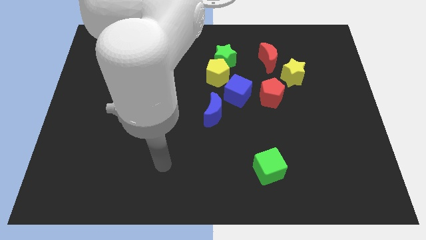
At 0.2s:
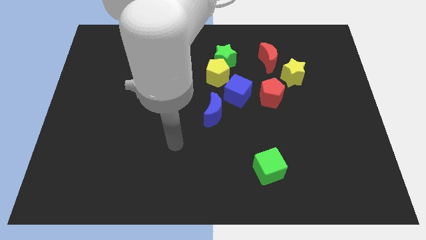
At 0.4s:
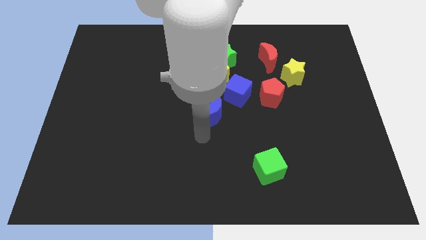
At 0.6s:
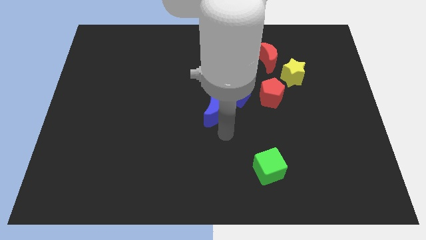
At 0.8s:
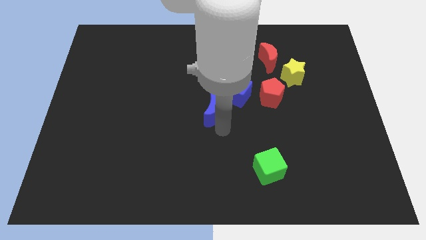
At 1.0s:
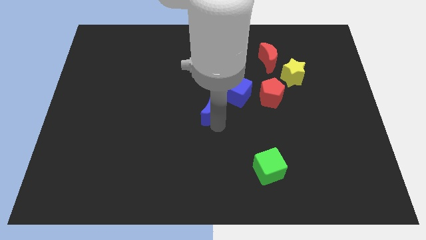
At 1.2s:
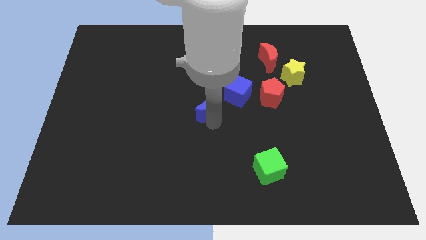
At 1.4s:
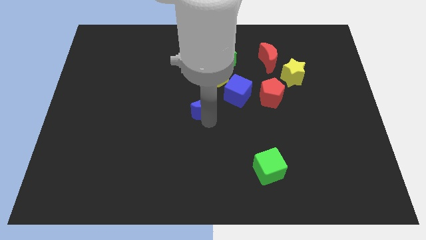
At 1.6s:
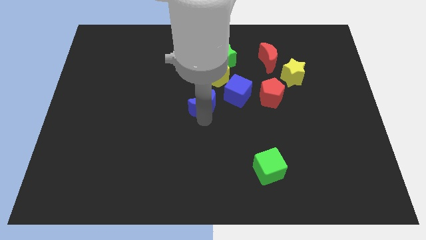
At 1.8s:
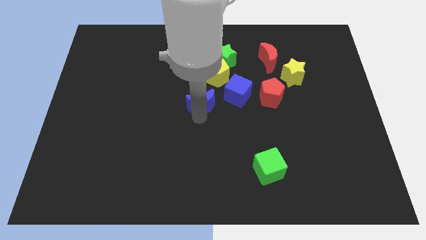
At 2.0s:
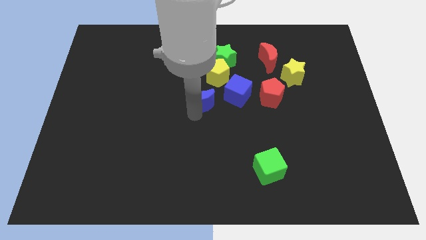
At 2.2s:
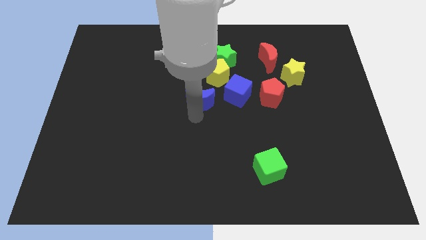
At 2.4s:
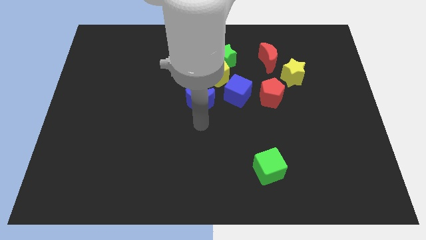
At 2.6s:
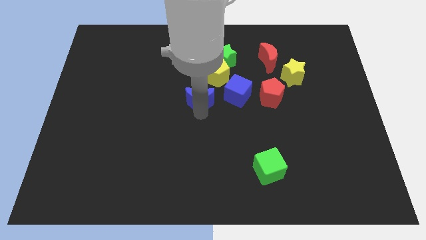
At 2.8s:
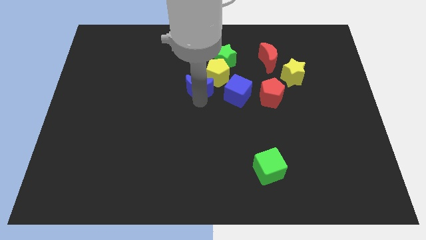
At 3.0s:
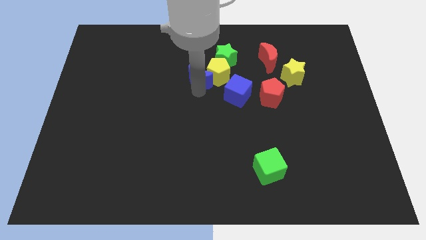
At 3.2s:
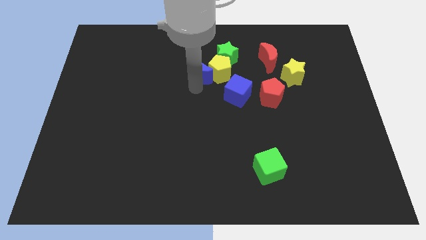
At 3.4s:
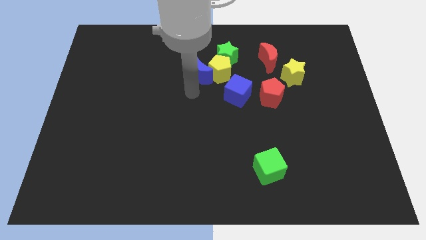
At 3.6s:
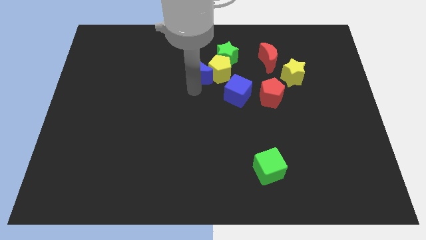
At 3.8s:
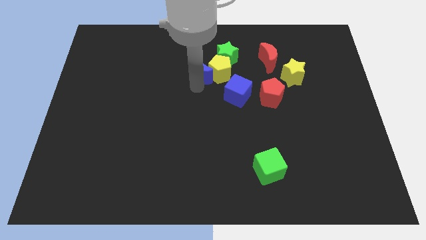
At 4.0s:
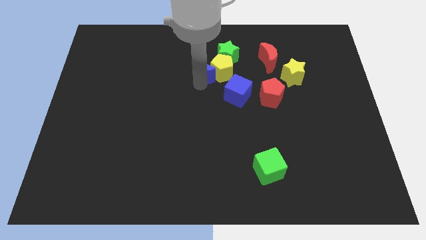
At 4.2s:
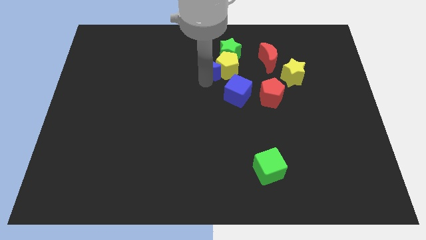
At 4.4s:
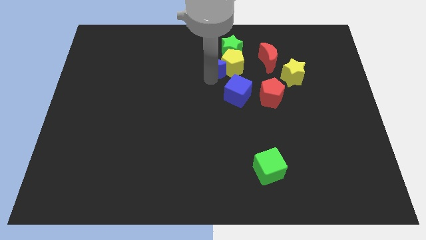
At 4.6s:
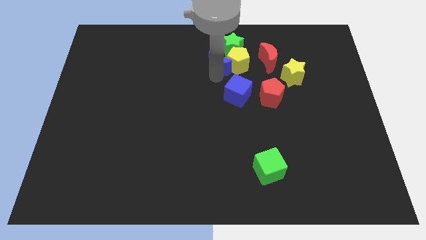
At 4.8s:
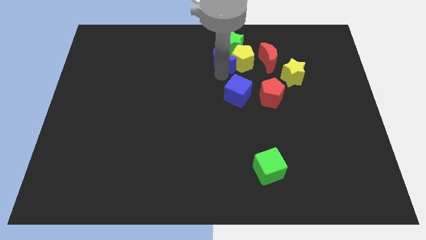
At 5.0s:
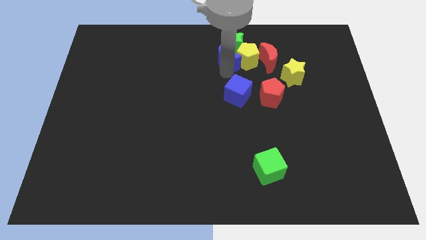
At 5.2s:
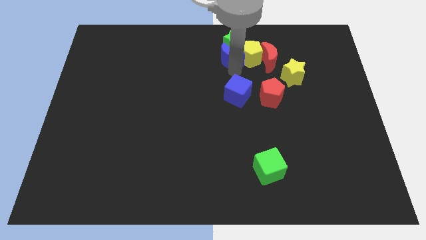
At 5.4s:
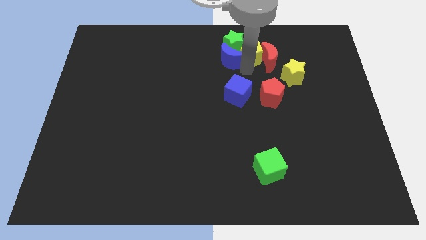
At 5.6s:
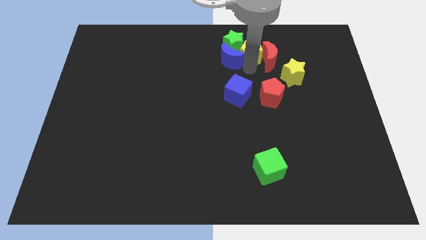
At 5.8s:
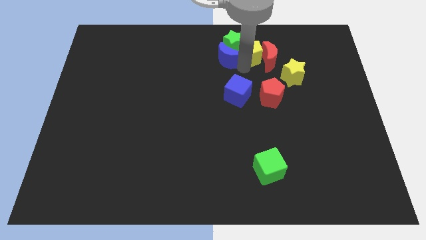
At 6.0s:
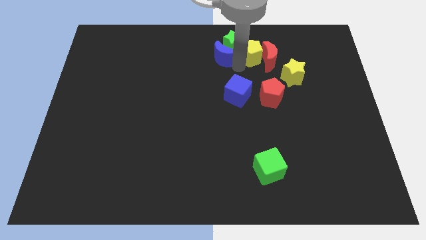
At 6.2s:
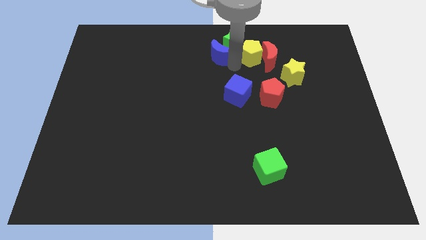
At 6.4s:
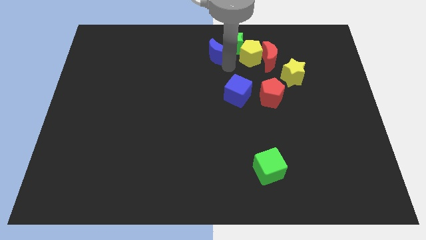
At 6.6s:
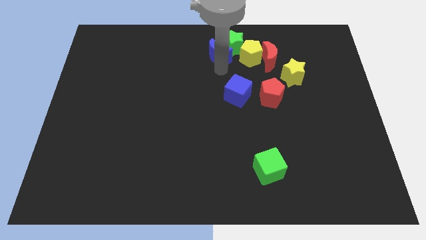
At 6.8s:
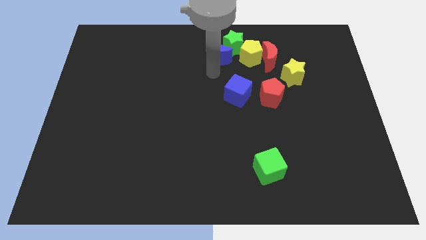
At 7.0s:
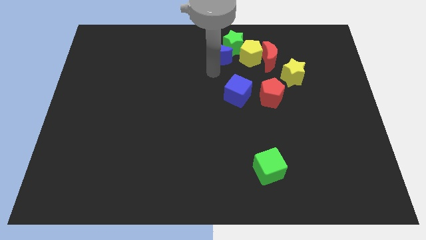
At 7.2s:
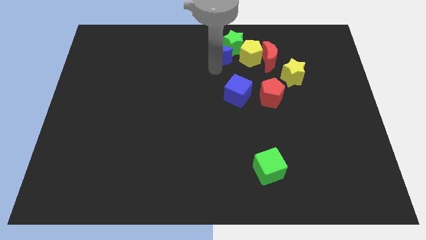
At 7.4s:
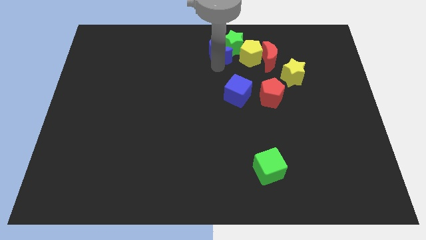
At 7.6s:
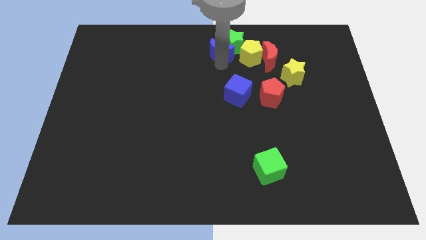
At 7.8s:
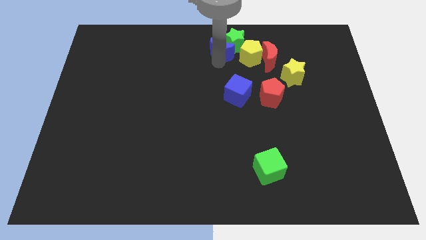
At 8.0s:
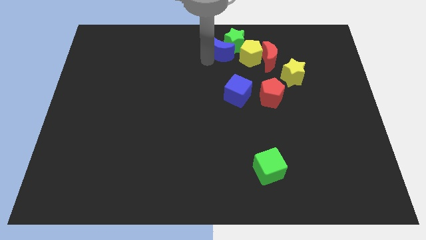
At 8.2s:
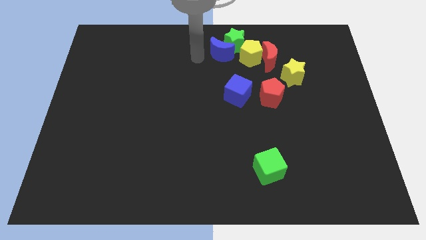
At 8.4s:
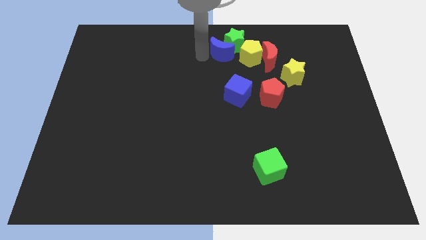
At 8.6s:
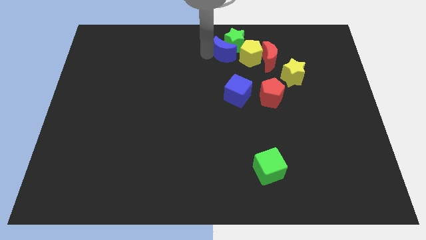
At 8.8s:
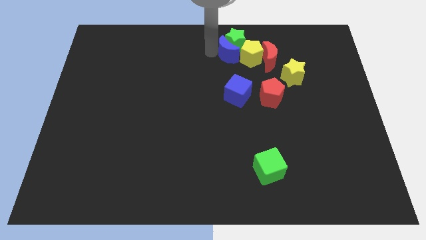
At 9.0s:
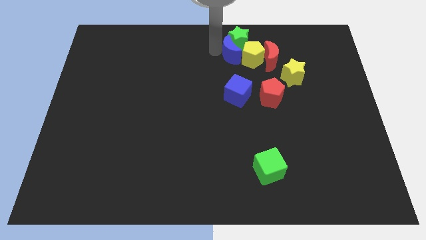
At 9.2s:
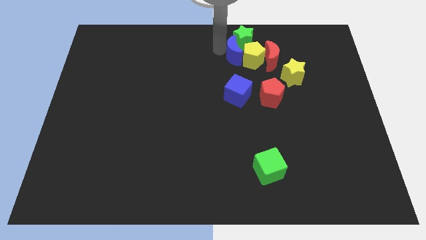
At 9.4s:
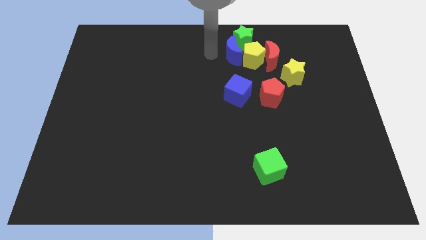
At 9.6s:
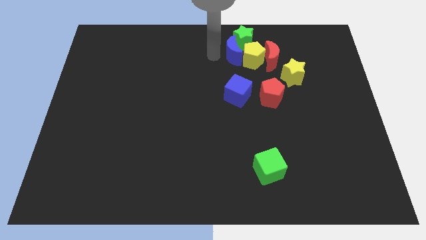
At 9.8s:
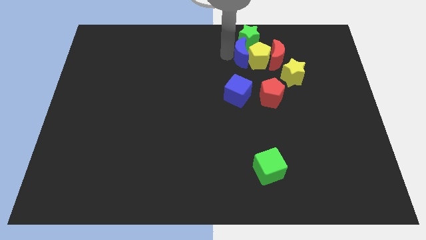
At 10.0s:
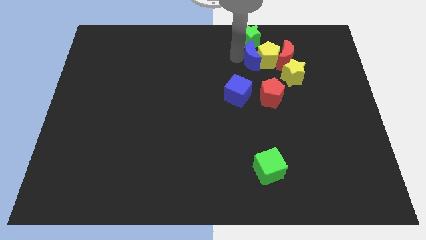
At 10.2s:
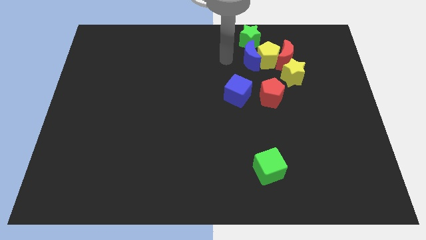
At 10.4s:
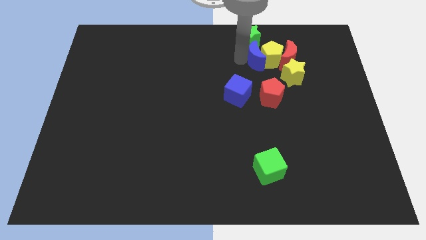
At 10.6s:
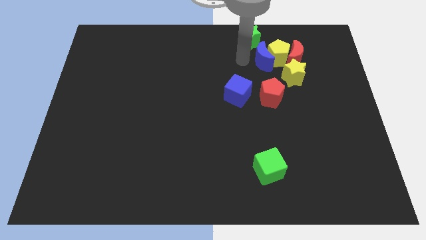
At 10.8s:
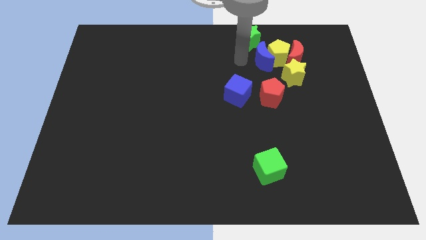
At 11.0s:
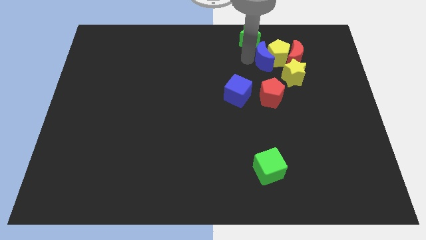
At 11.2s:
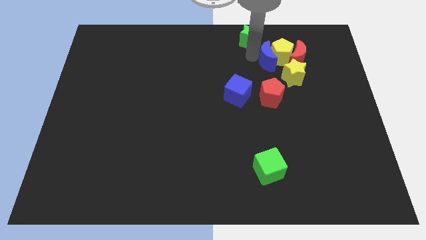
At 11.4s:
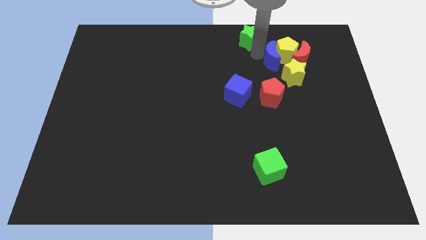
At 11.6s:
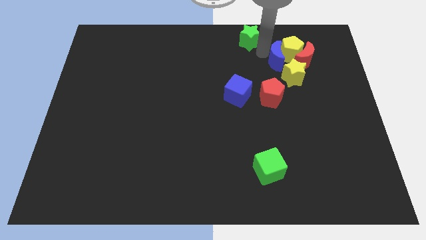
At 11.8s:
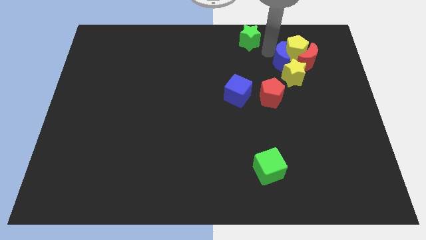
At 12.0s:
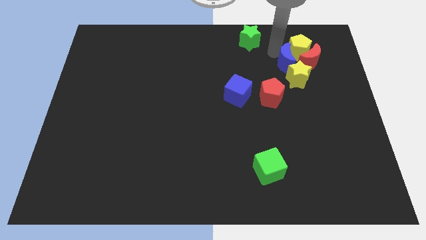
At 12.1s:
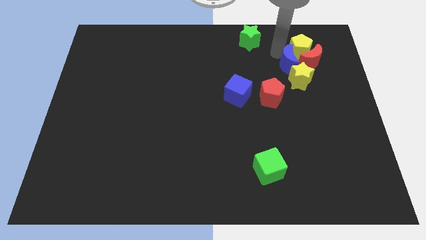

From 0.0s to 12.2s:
push the blue moon next to the red moon

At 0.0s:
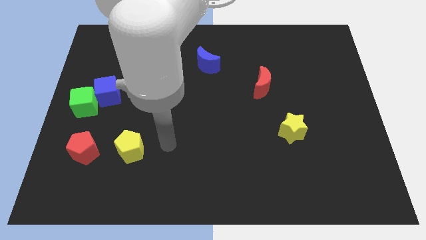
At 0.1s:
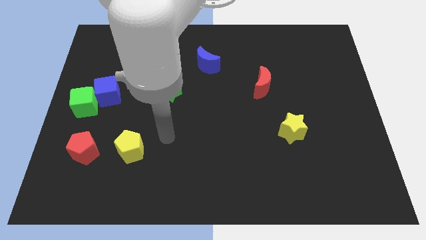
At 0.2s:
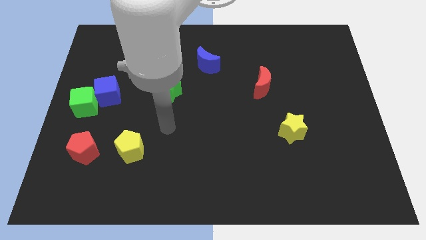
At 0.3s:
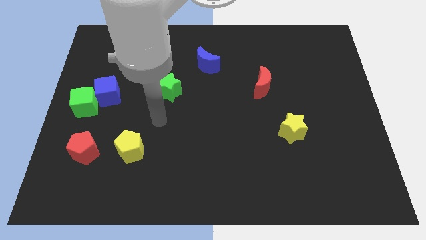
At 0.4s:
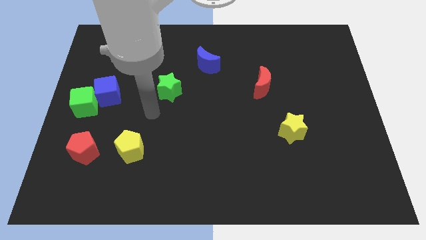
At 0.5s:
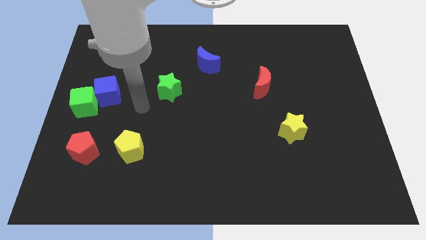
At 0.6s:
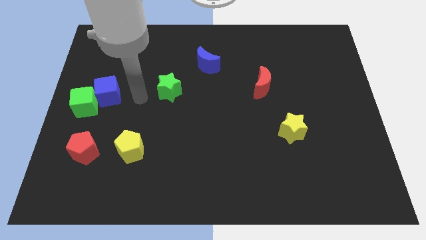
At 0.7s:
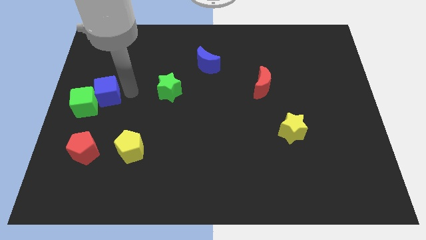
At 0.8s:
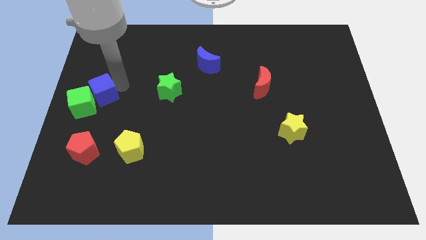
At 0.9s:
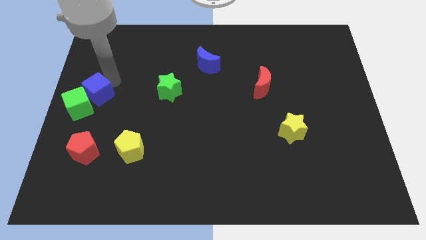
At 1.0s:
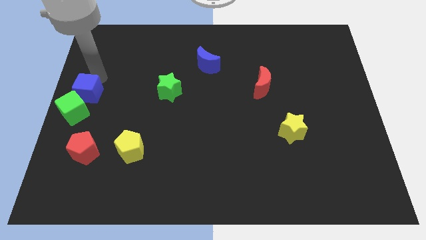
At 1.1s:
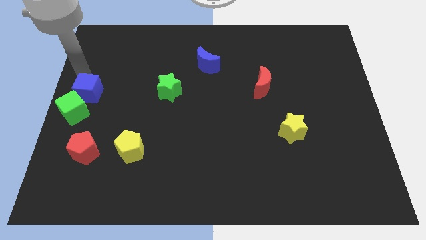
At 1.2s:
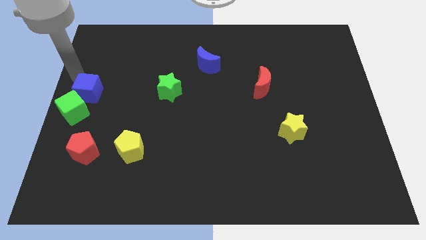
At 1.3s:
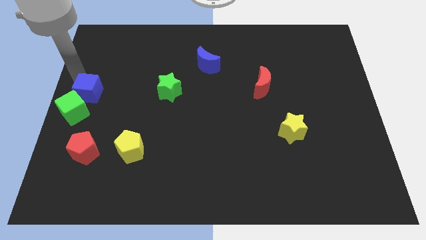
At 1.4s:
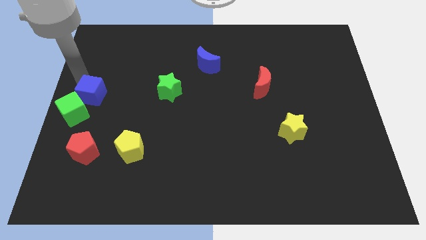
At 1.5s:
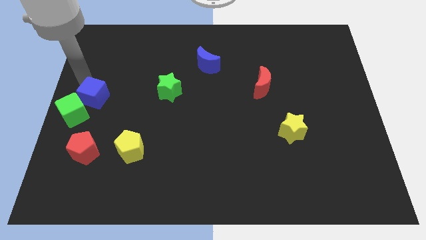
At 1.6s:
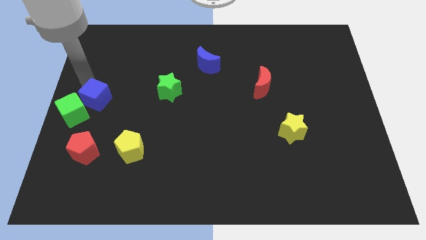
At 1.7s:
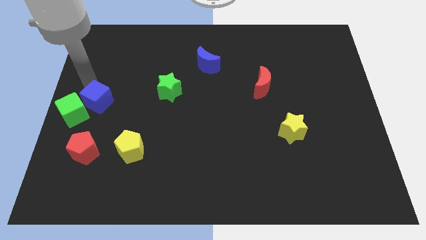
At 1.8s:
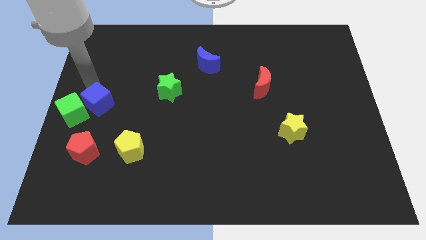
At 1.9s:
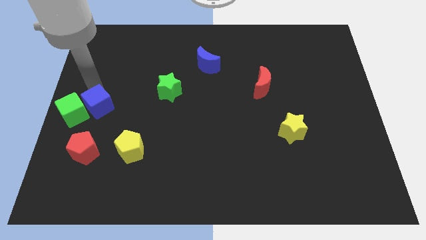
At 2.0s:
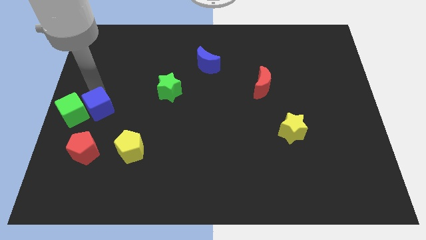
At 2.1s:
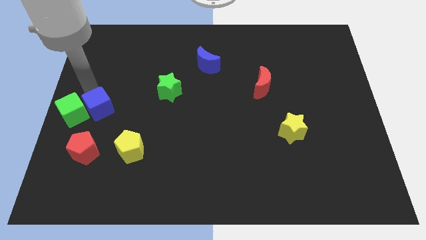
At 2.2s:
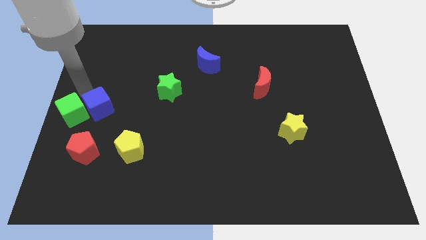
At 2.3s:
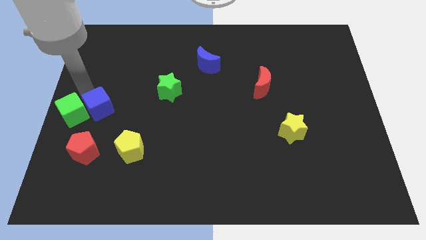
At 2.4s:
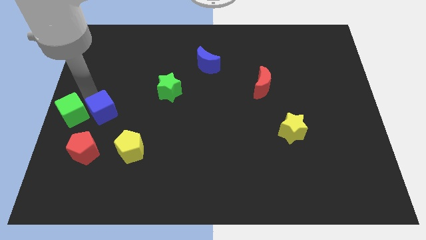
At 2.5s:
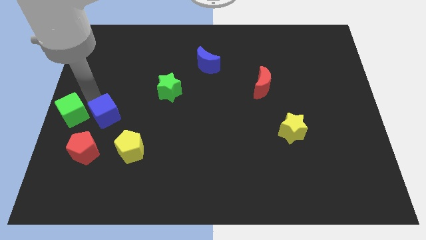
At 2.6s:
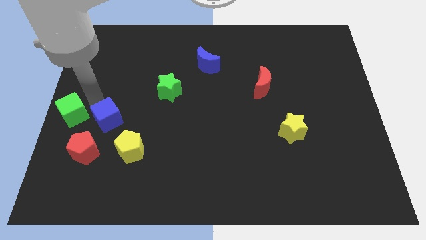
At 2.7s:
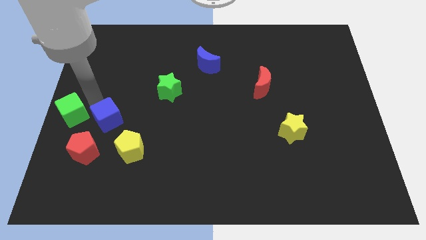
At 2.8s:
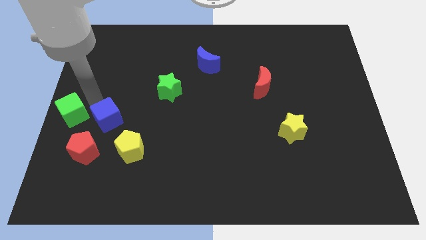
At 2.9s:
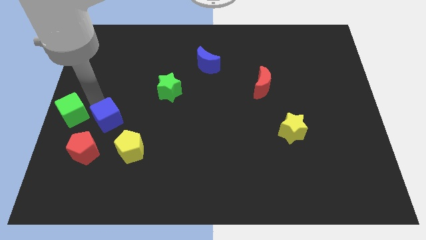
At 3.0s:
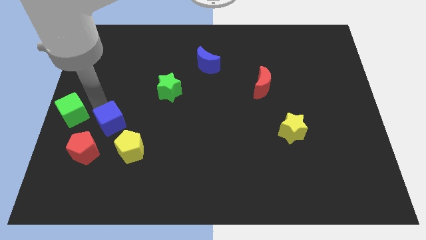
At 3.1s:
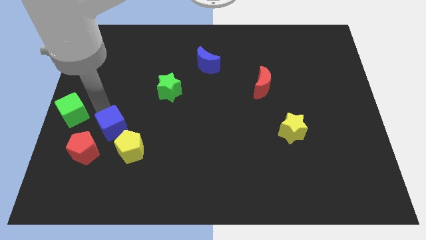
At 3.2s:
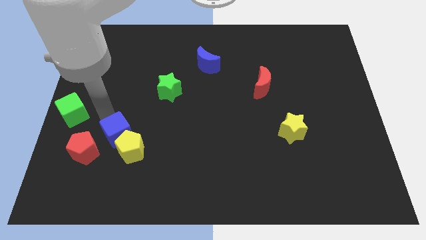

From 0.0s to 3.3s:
move the blue cube close to the yellow pentagon
